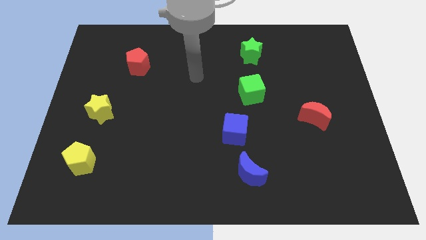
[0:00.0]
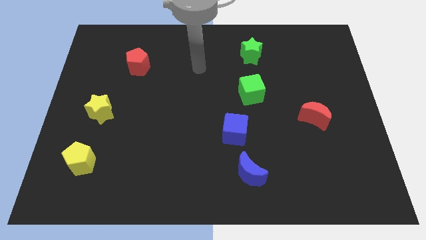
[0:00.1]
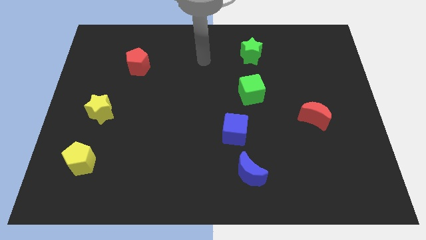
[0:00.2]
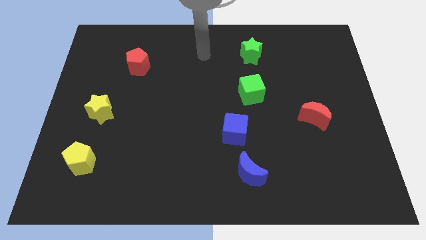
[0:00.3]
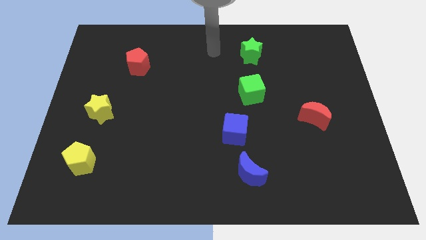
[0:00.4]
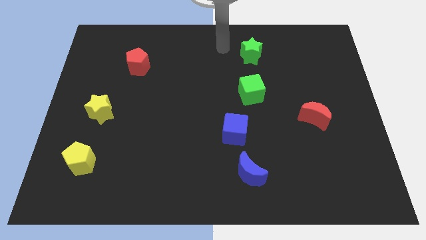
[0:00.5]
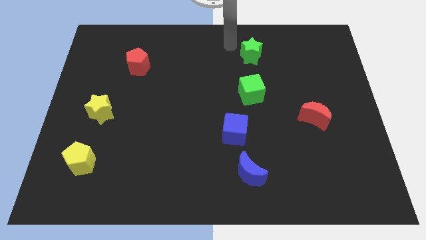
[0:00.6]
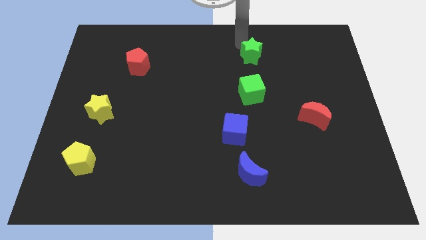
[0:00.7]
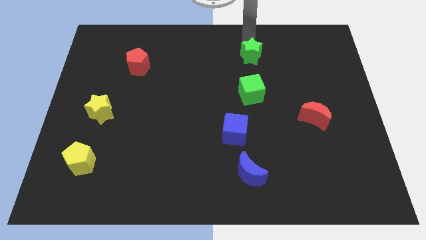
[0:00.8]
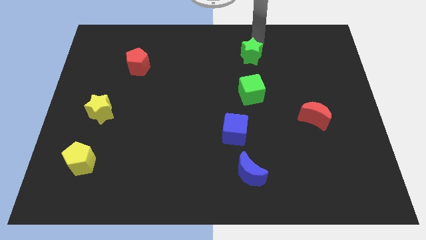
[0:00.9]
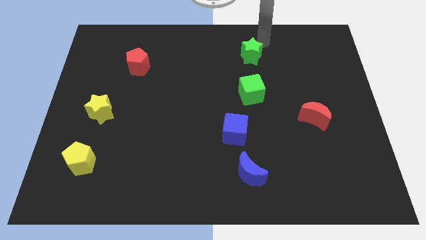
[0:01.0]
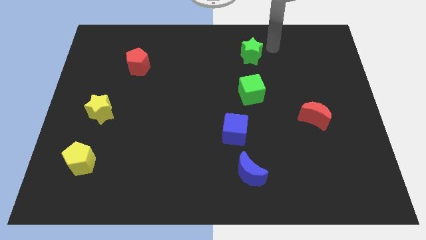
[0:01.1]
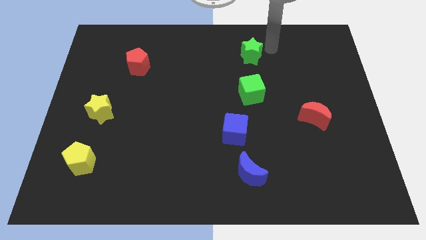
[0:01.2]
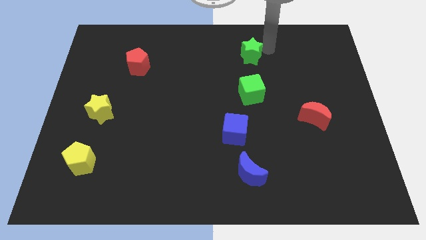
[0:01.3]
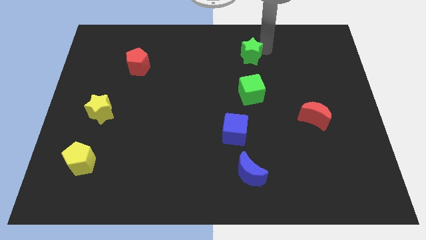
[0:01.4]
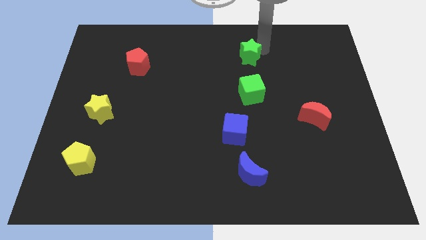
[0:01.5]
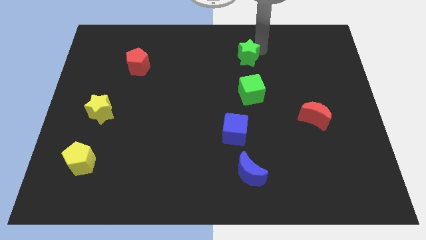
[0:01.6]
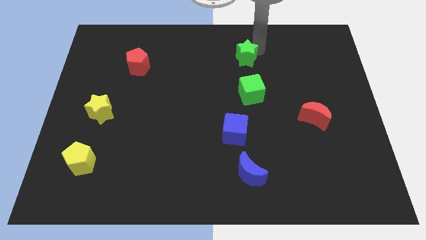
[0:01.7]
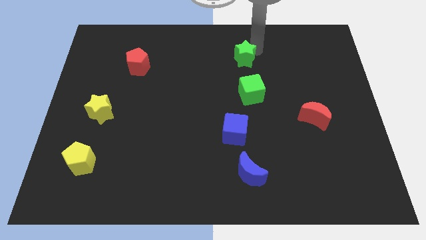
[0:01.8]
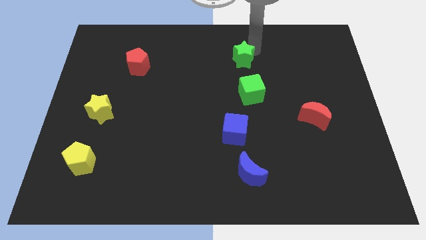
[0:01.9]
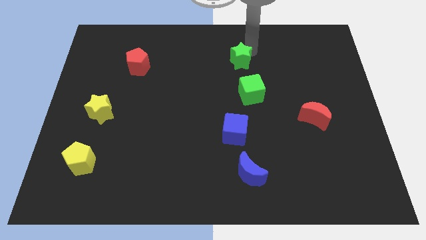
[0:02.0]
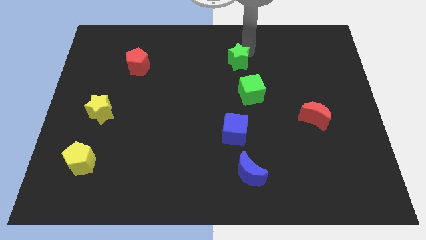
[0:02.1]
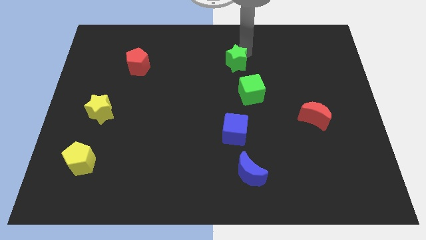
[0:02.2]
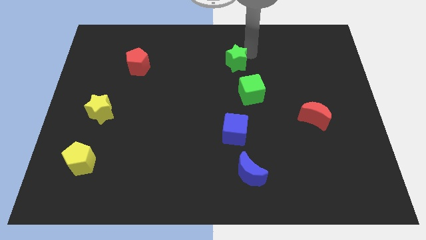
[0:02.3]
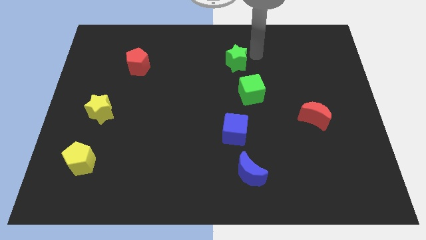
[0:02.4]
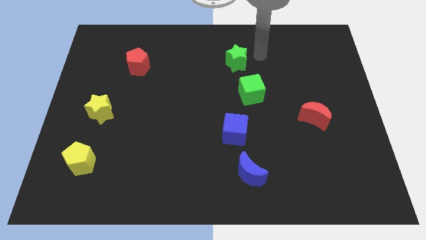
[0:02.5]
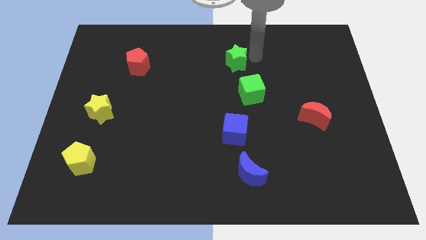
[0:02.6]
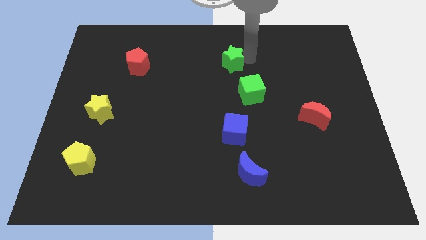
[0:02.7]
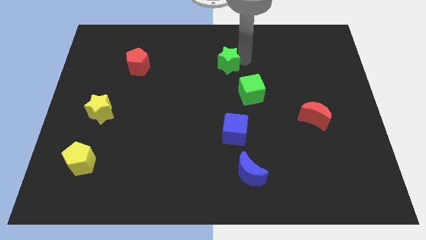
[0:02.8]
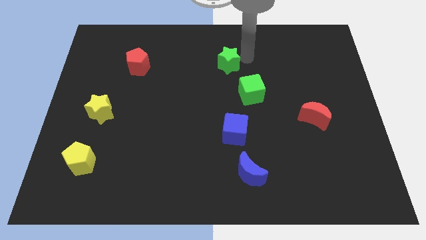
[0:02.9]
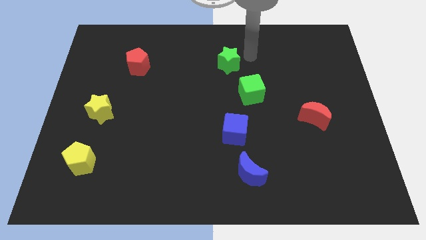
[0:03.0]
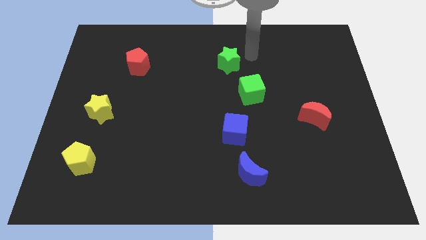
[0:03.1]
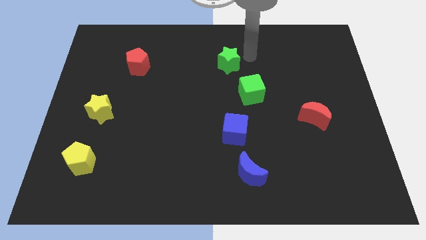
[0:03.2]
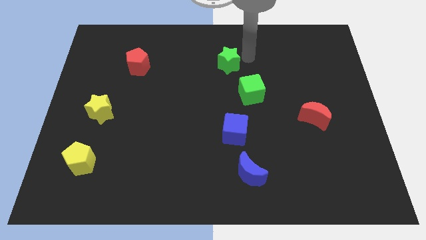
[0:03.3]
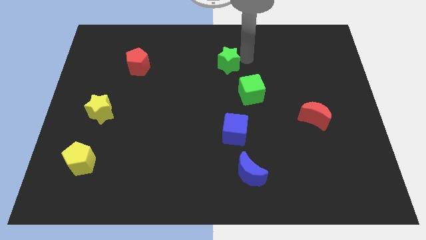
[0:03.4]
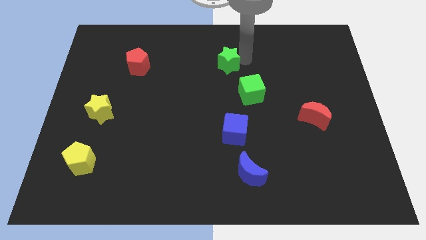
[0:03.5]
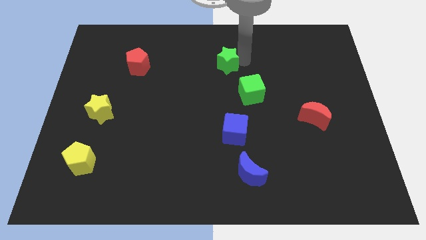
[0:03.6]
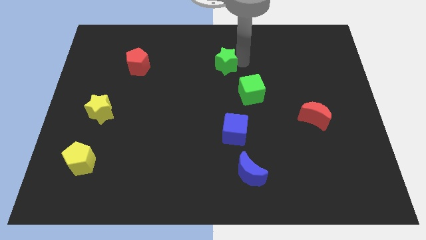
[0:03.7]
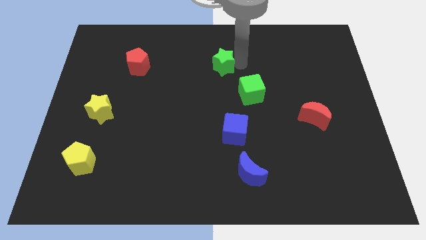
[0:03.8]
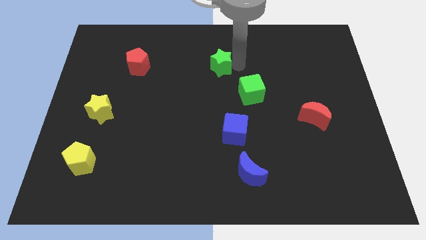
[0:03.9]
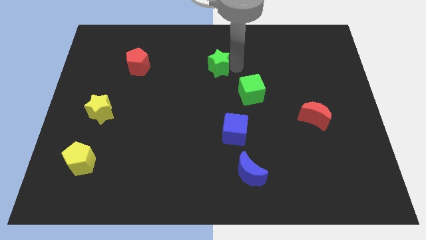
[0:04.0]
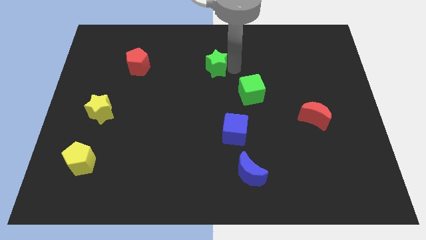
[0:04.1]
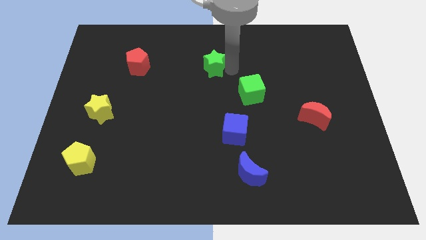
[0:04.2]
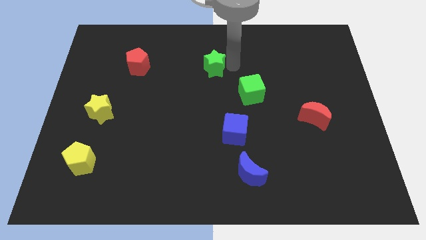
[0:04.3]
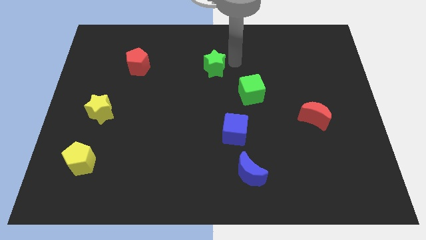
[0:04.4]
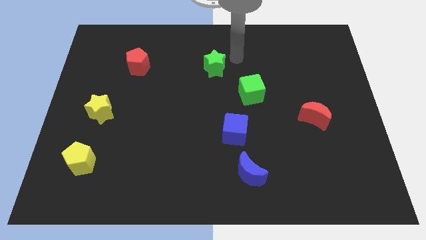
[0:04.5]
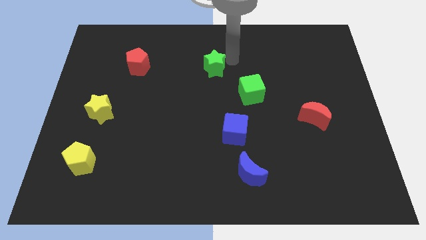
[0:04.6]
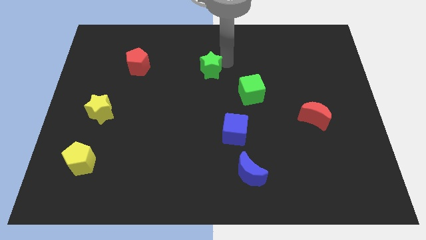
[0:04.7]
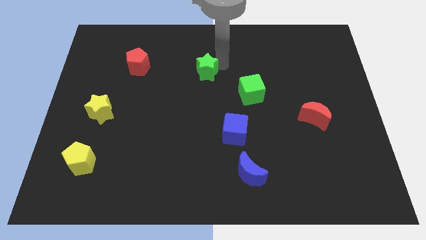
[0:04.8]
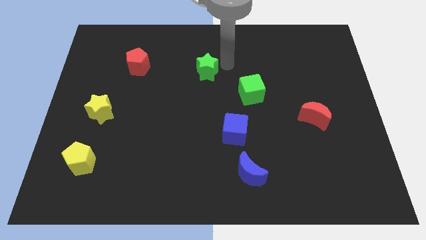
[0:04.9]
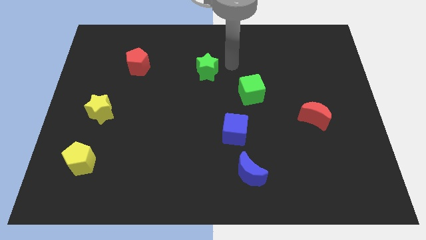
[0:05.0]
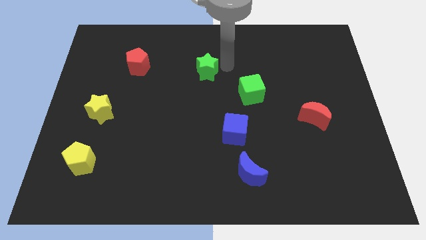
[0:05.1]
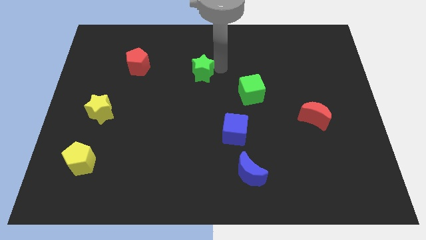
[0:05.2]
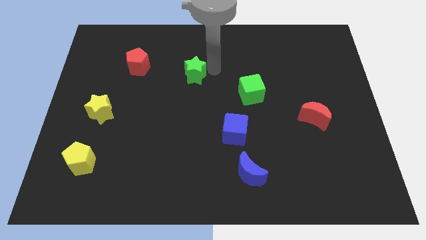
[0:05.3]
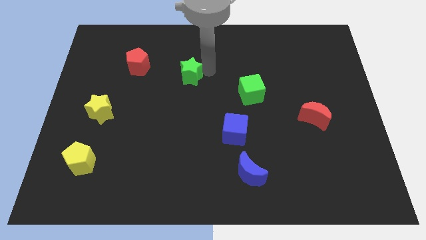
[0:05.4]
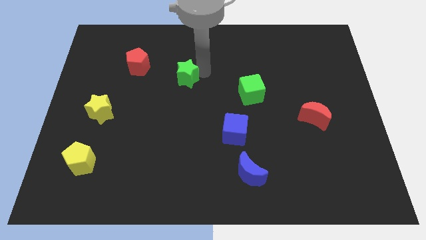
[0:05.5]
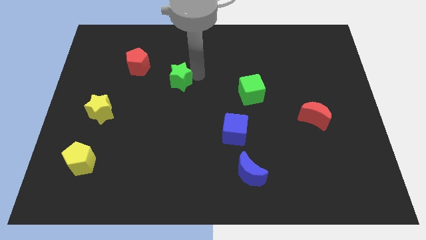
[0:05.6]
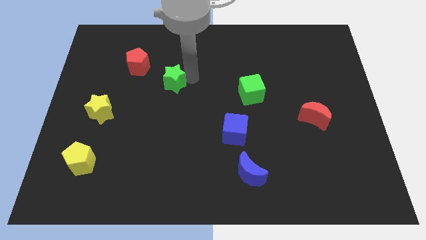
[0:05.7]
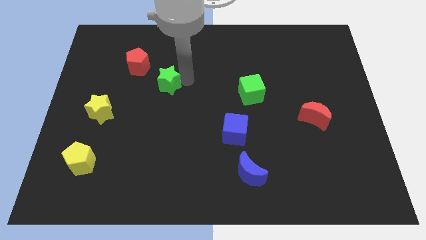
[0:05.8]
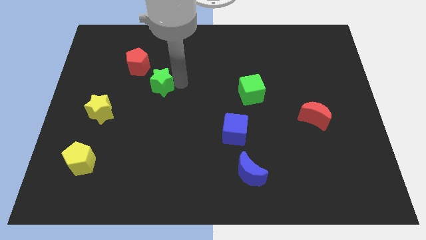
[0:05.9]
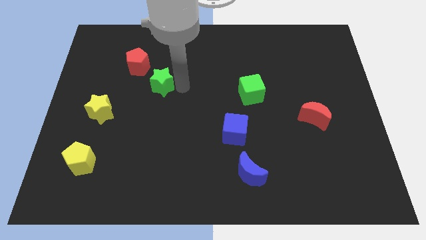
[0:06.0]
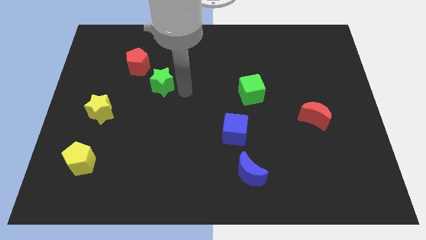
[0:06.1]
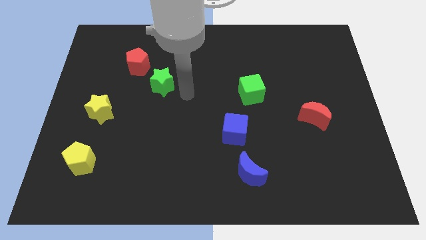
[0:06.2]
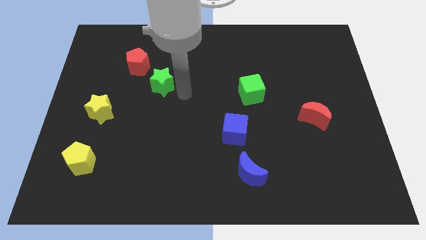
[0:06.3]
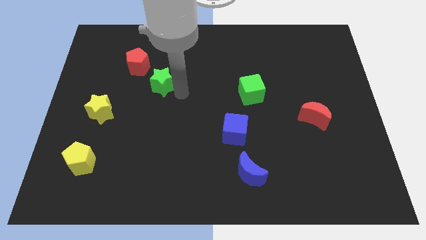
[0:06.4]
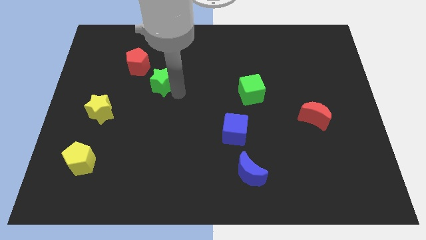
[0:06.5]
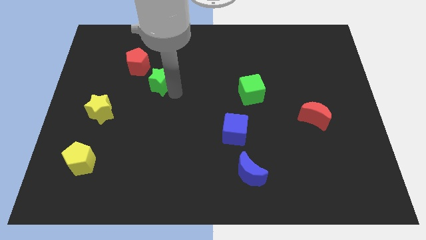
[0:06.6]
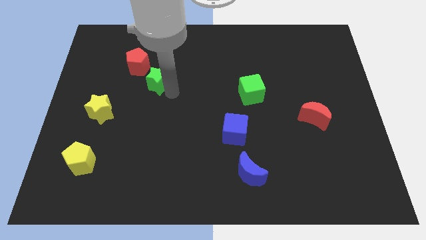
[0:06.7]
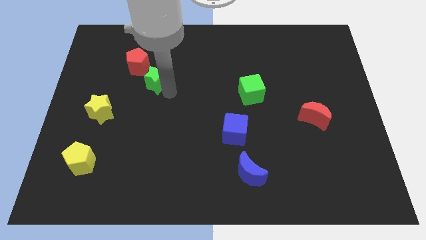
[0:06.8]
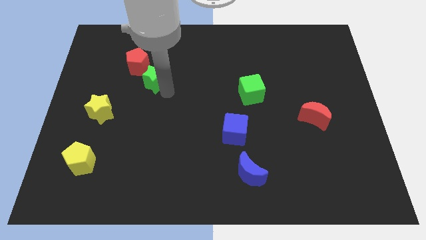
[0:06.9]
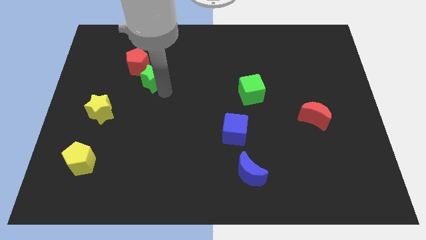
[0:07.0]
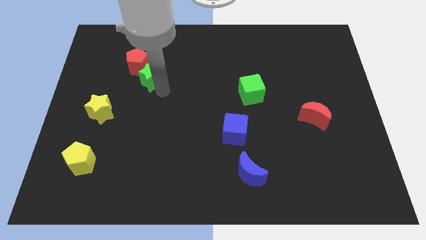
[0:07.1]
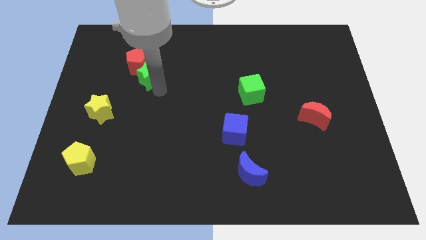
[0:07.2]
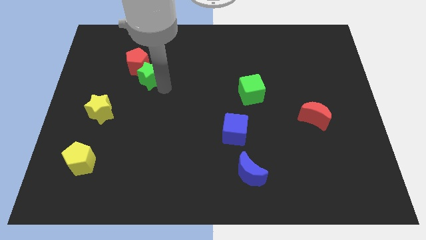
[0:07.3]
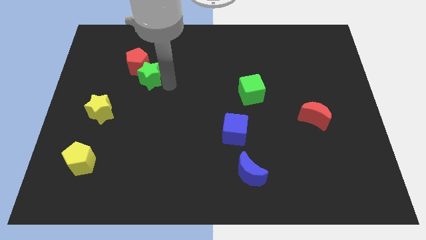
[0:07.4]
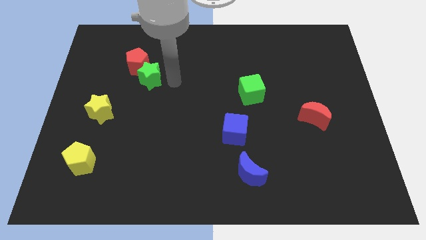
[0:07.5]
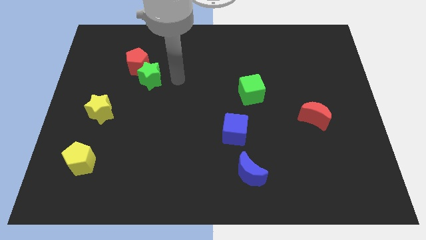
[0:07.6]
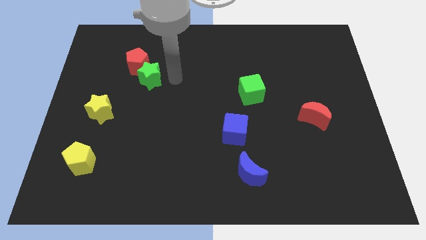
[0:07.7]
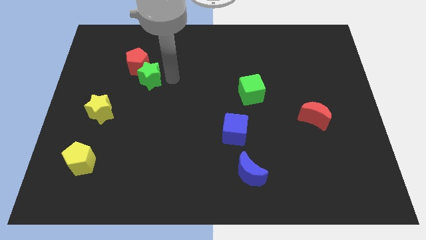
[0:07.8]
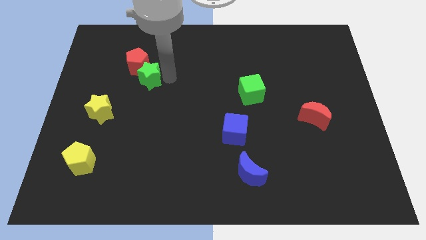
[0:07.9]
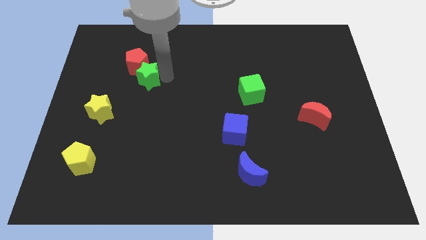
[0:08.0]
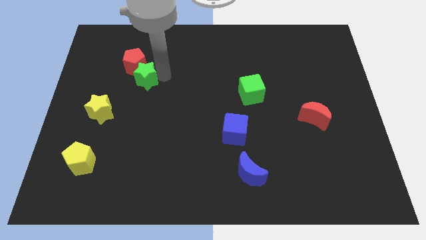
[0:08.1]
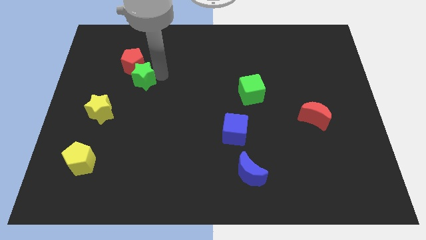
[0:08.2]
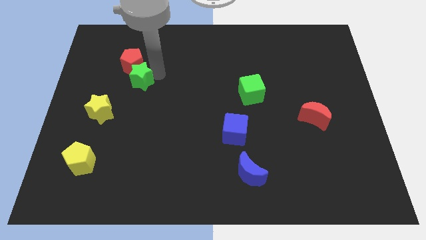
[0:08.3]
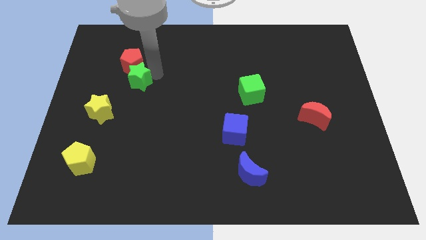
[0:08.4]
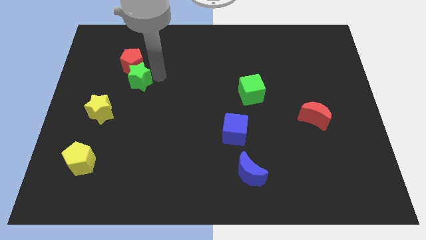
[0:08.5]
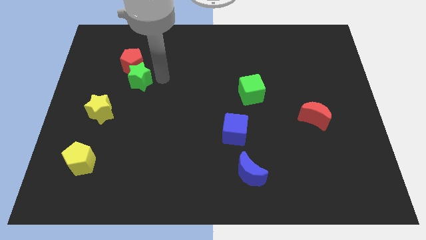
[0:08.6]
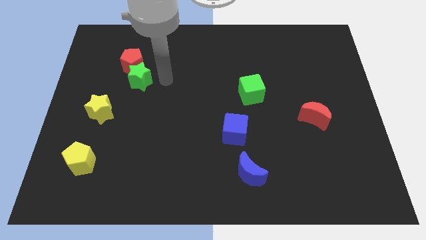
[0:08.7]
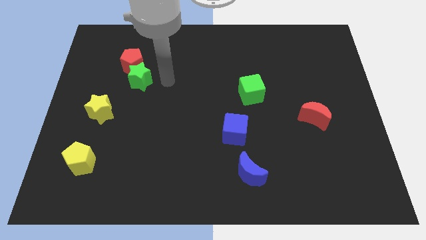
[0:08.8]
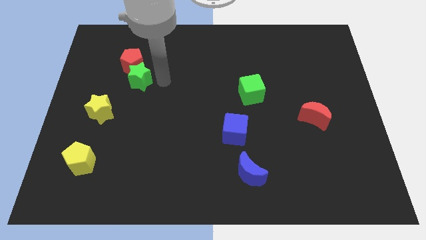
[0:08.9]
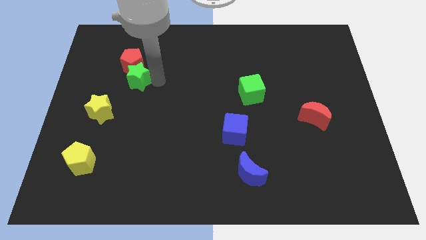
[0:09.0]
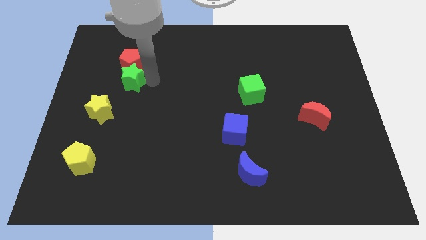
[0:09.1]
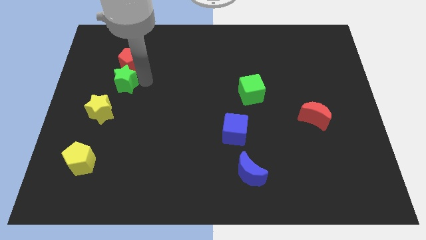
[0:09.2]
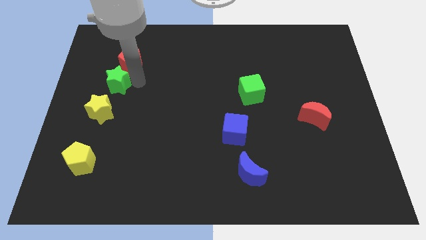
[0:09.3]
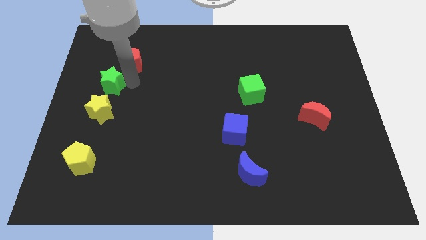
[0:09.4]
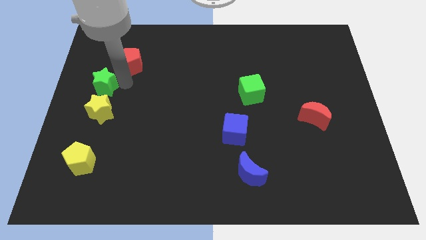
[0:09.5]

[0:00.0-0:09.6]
move the green star to the left side of the board
